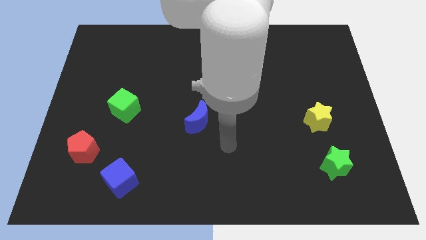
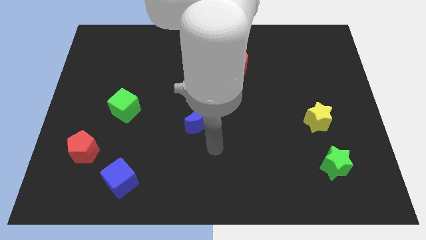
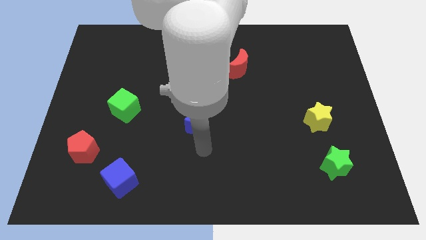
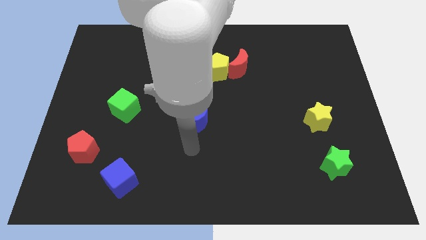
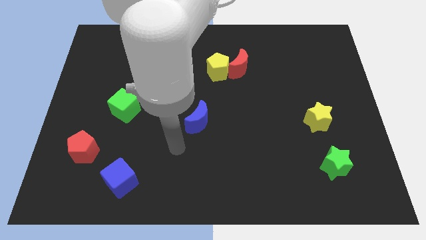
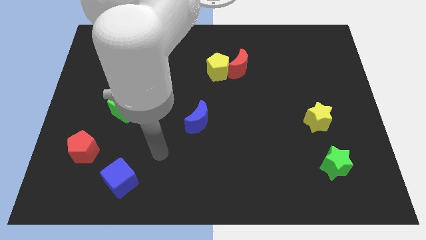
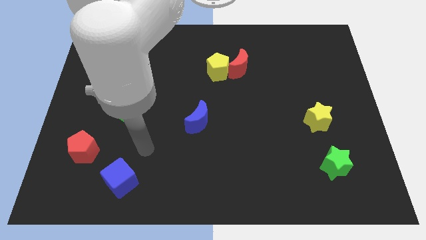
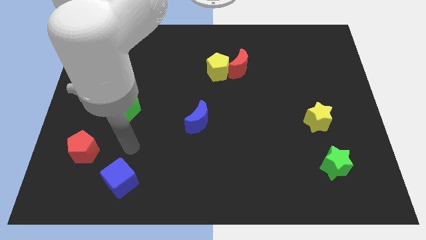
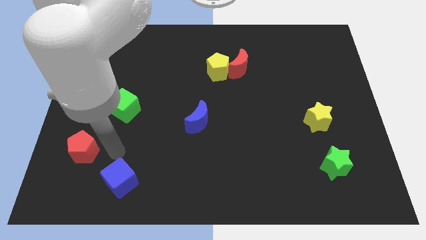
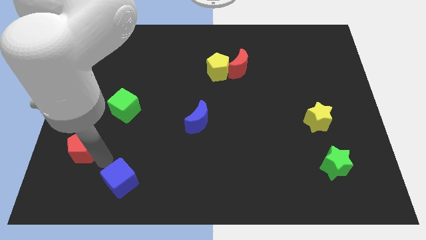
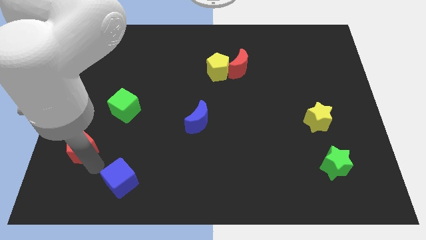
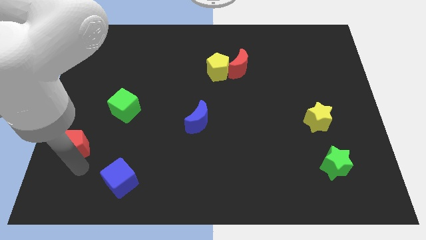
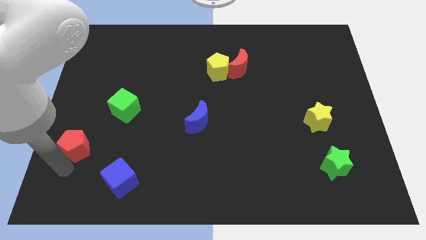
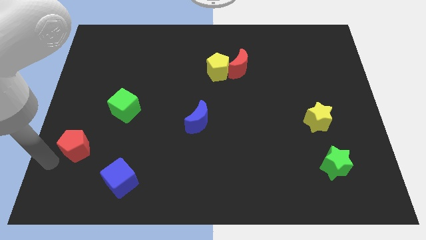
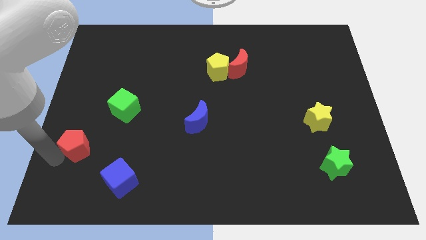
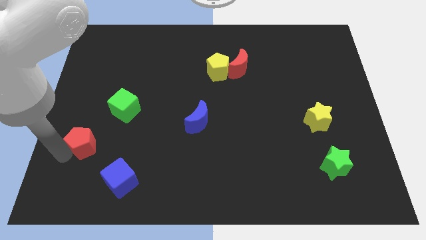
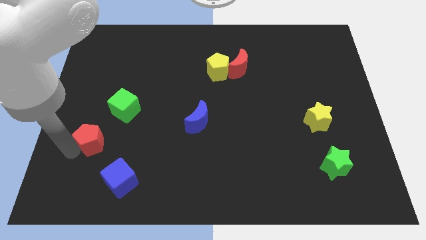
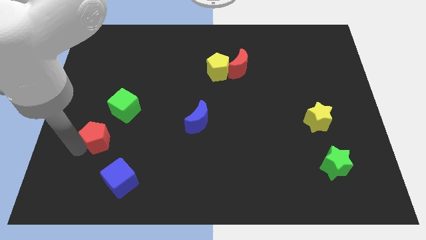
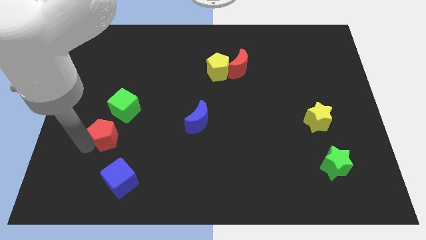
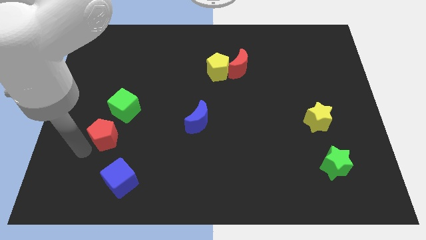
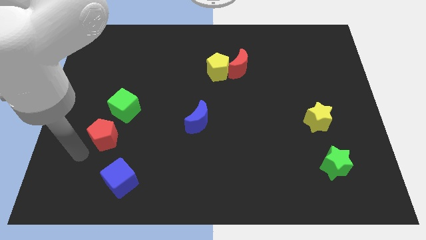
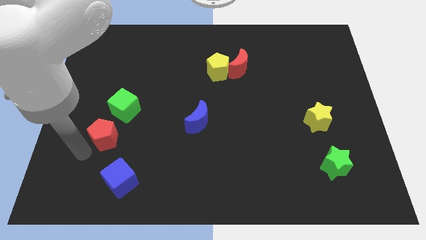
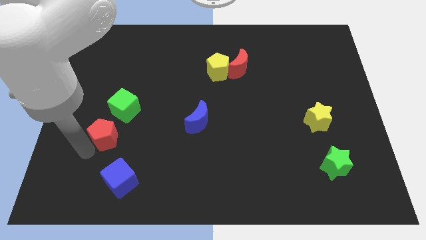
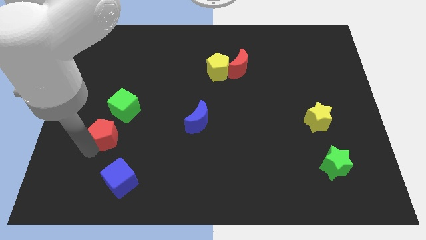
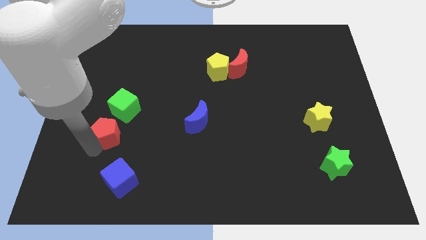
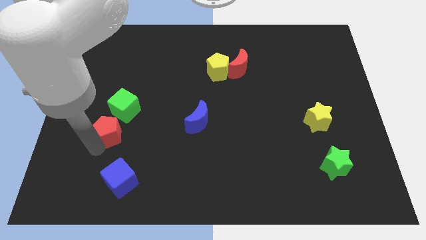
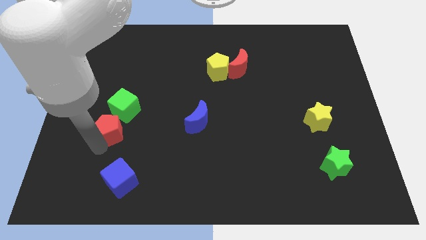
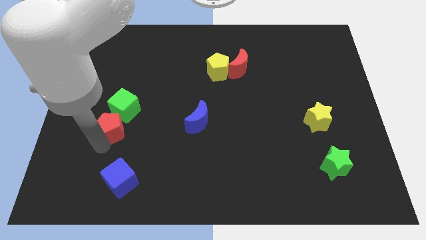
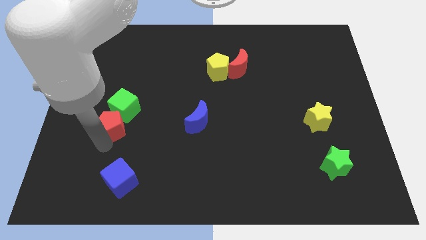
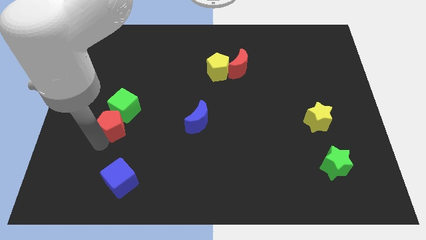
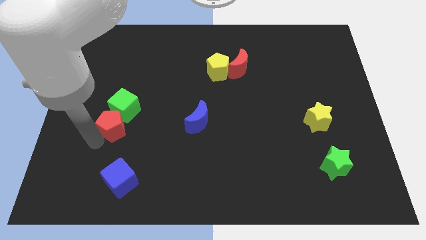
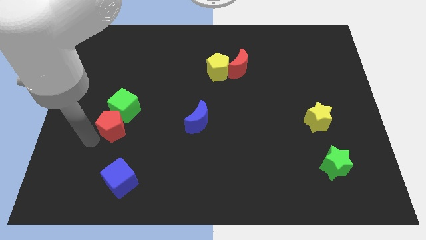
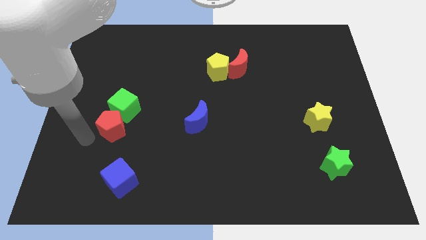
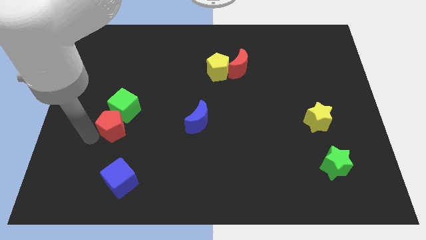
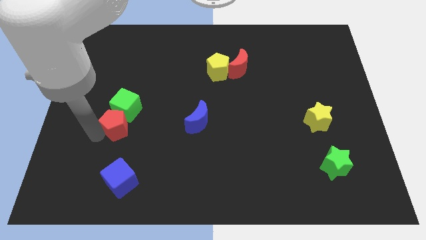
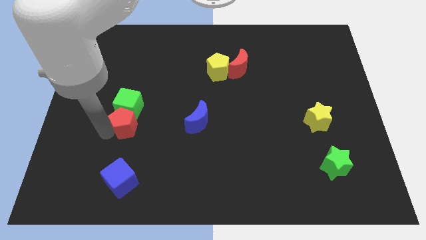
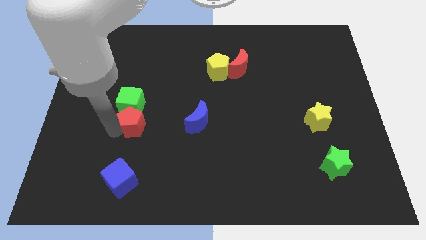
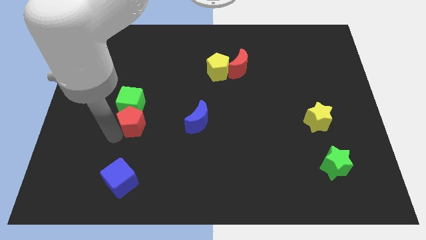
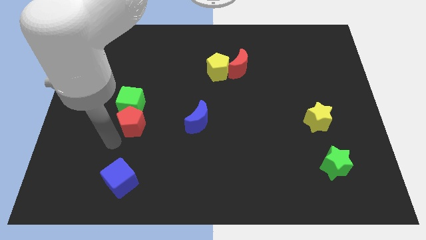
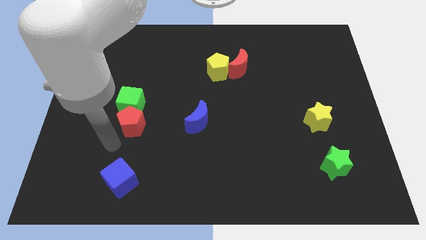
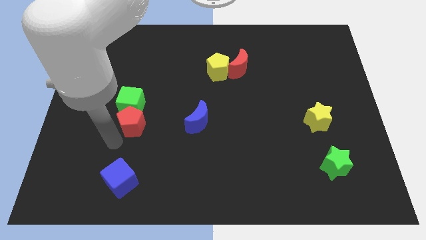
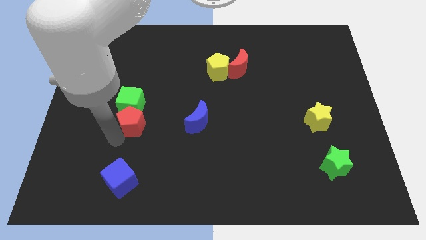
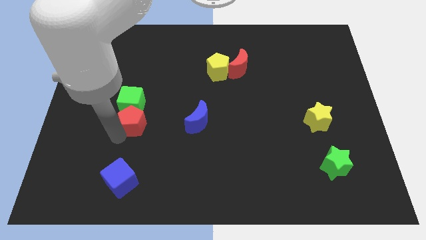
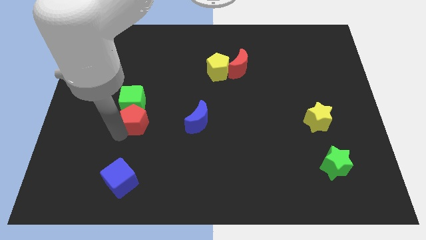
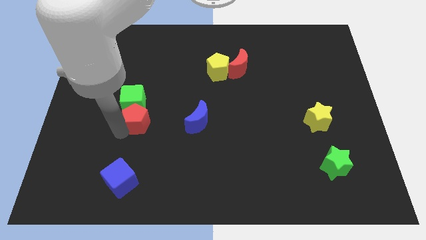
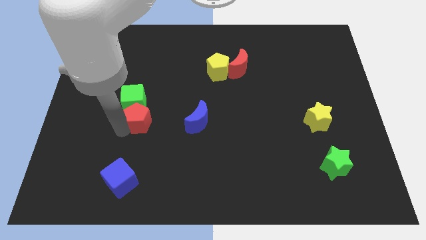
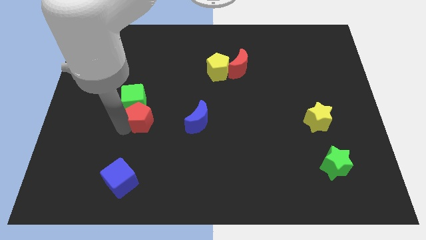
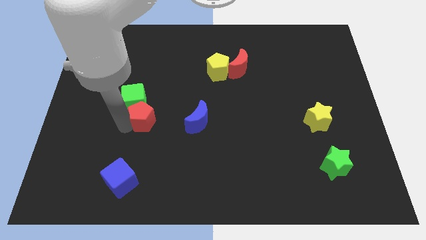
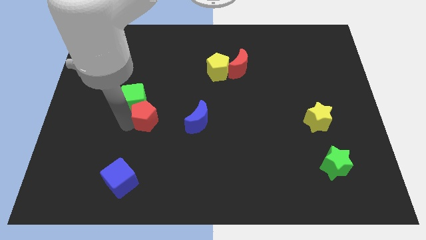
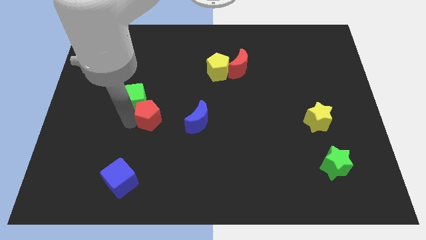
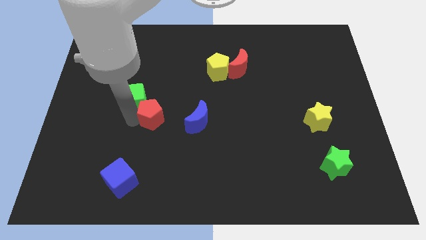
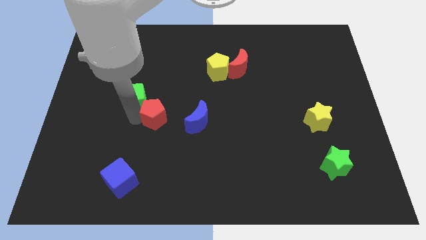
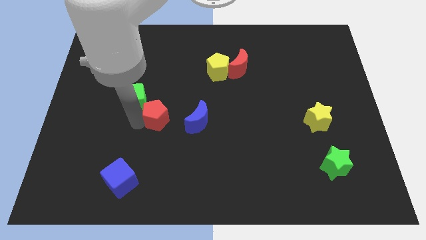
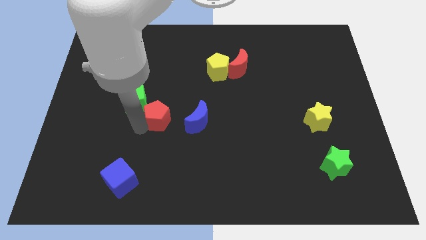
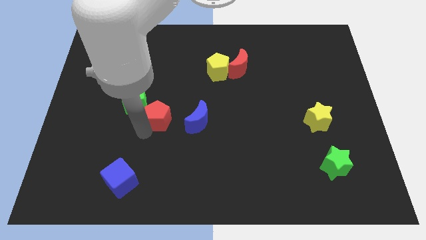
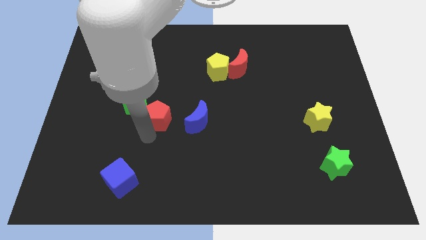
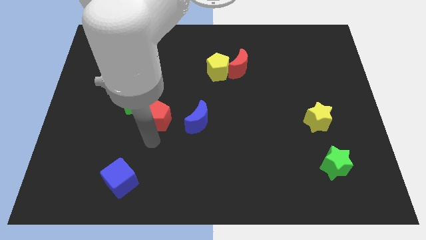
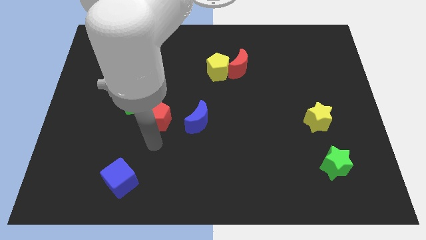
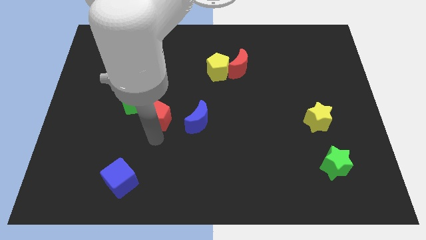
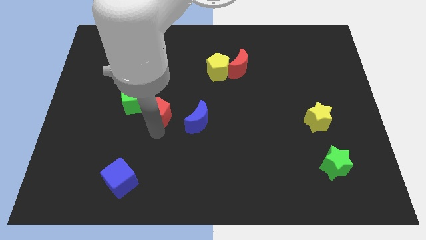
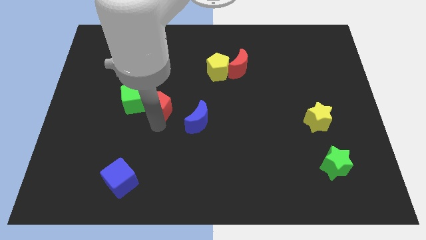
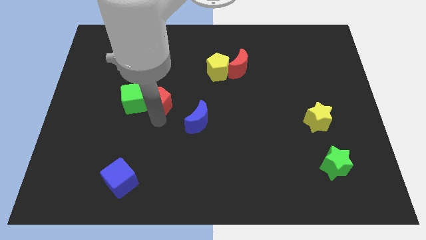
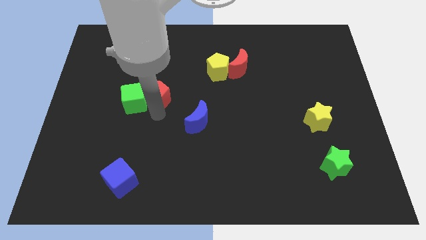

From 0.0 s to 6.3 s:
slide the red pentagon diagonally upwards and right

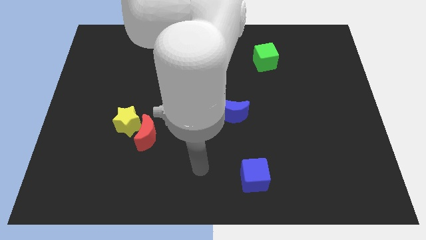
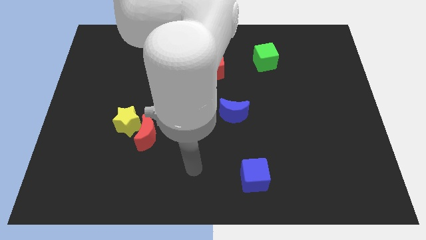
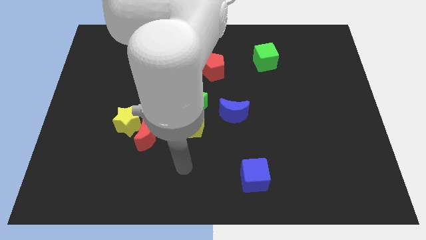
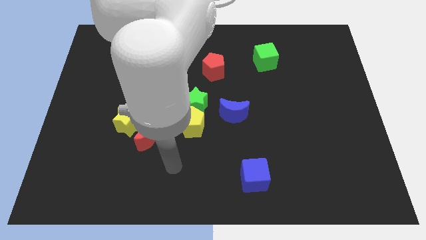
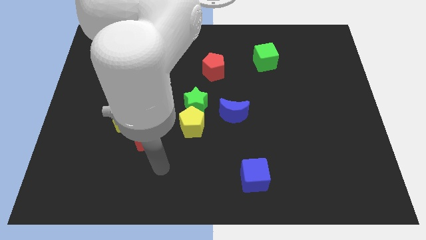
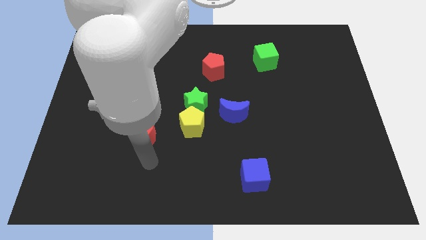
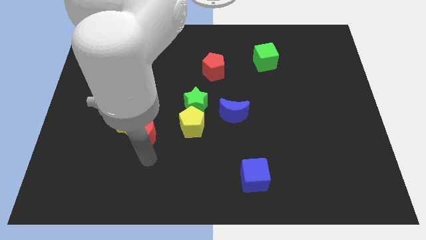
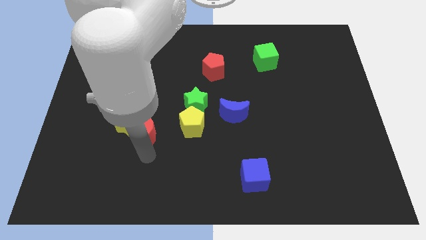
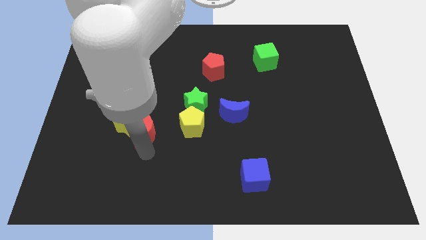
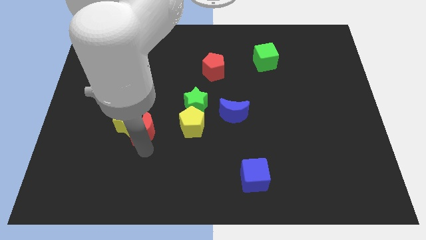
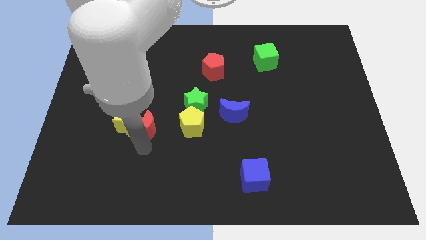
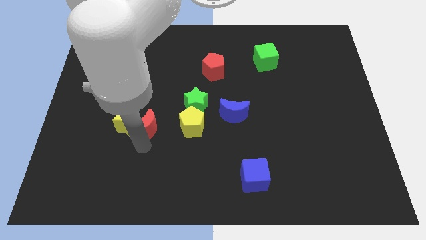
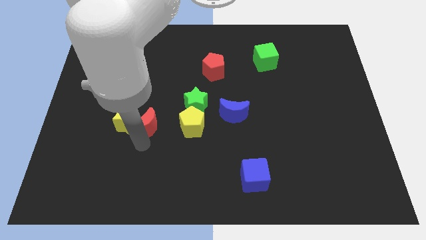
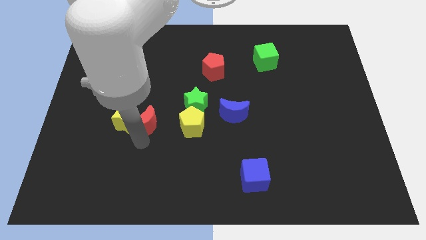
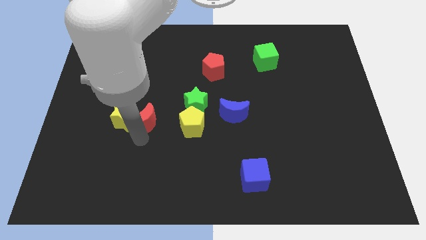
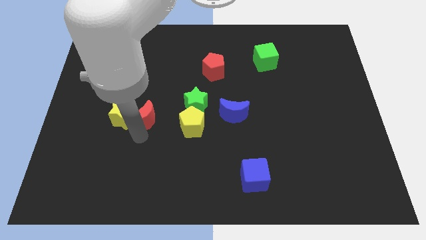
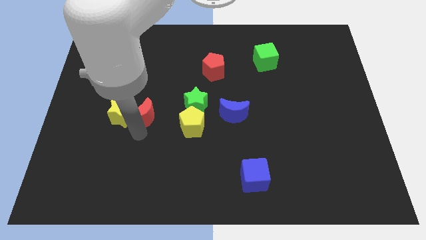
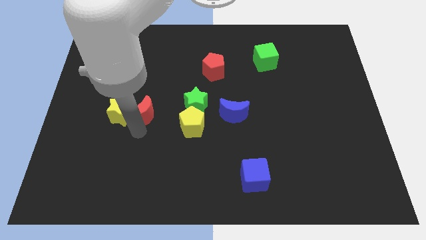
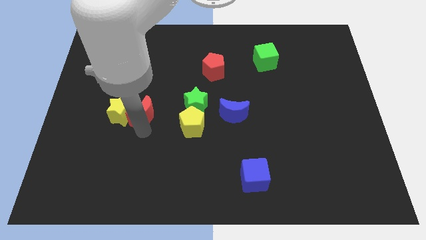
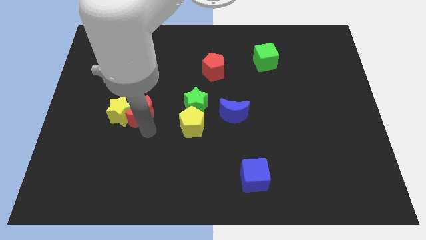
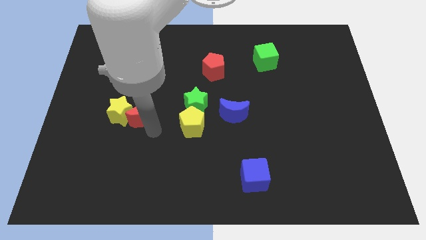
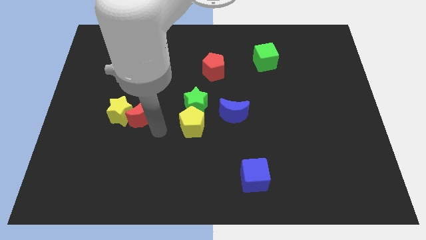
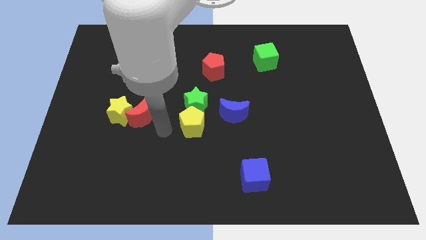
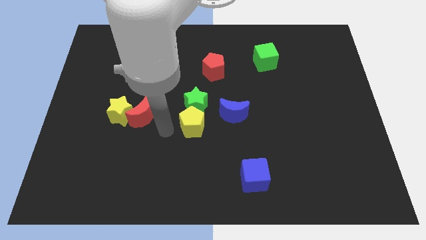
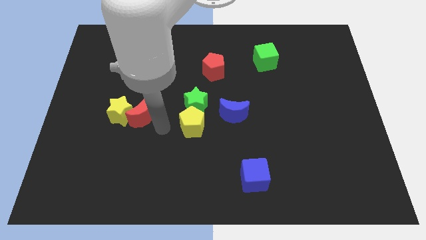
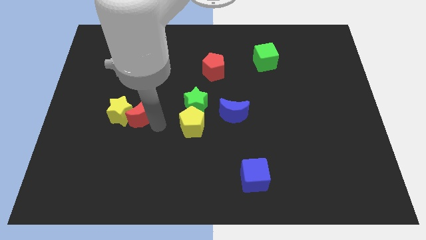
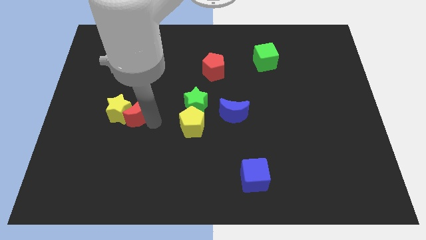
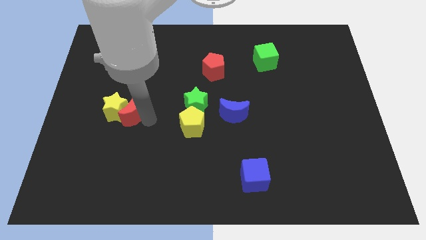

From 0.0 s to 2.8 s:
move the red moon a bit up and to the left
